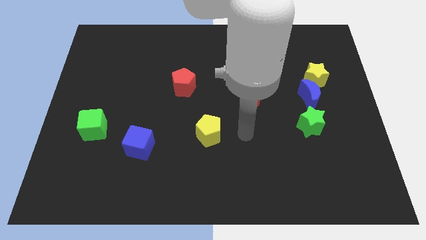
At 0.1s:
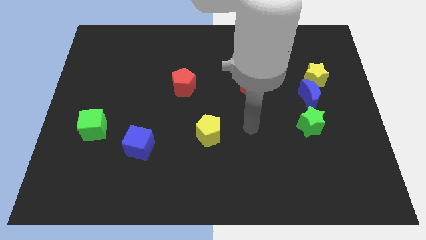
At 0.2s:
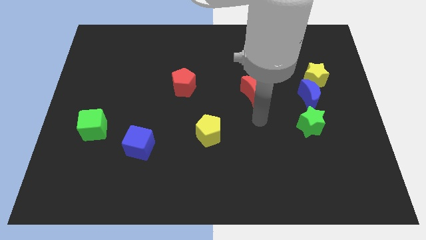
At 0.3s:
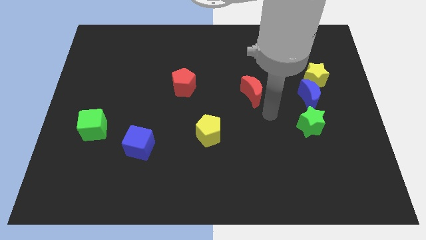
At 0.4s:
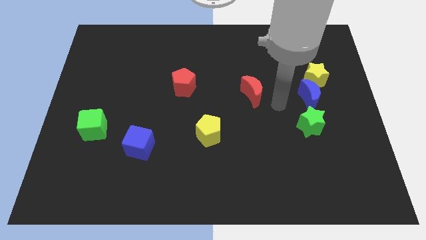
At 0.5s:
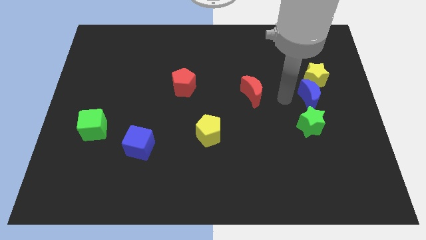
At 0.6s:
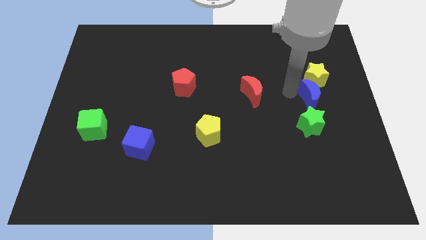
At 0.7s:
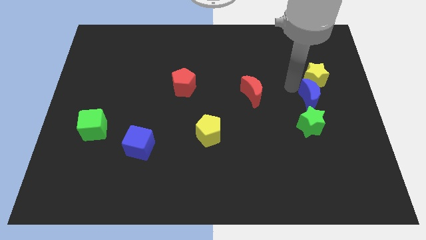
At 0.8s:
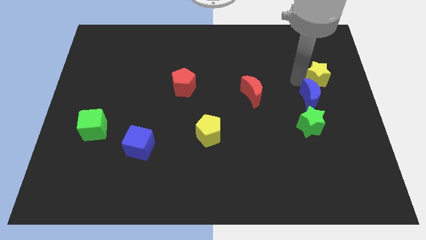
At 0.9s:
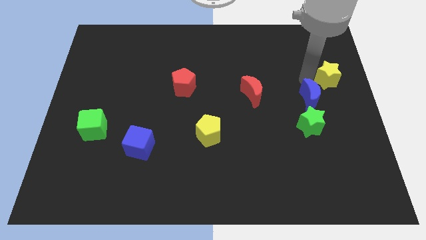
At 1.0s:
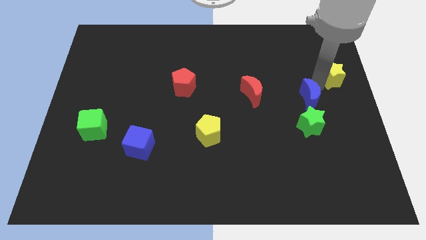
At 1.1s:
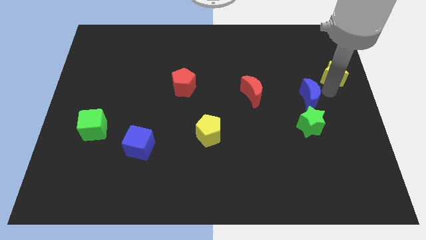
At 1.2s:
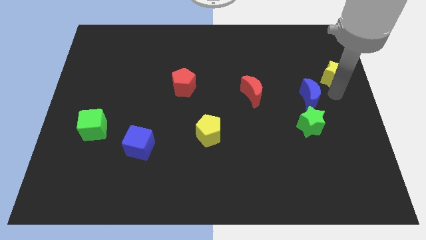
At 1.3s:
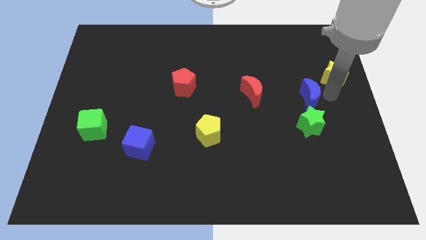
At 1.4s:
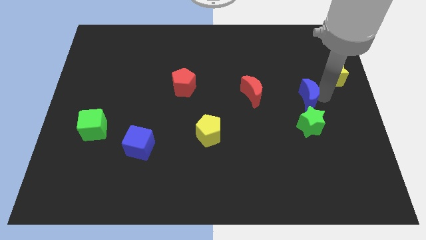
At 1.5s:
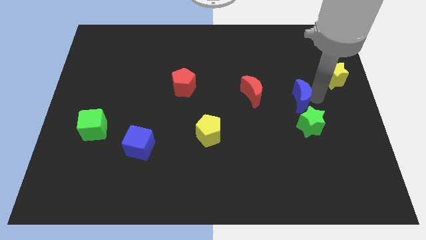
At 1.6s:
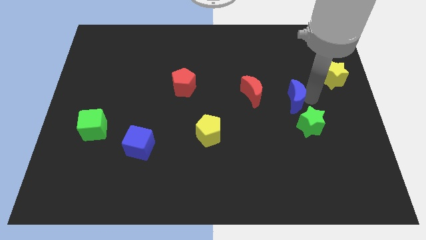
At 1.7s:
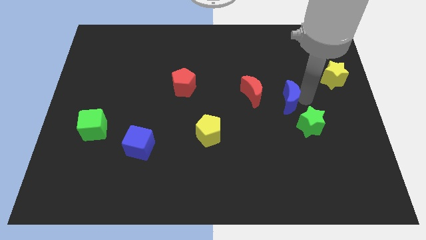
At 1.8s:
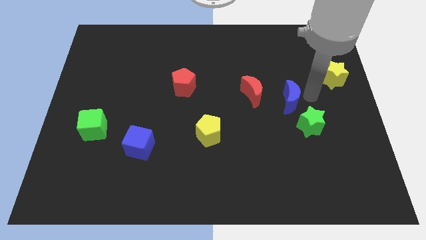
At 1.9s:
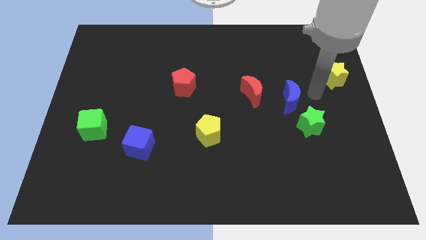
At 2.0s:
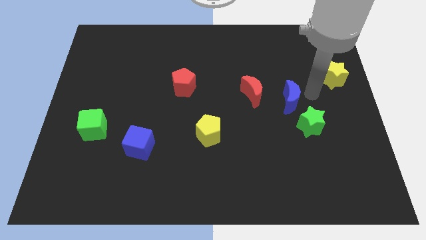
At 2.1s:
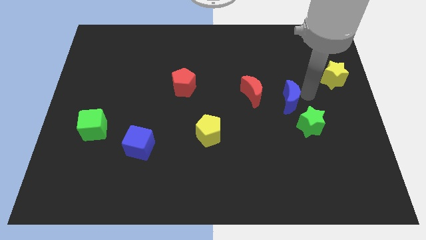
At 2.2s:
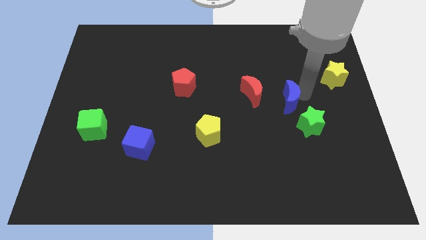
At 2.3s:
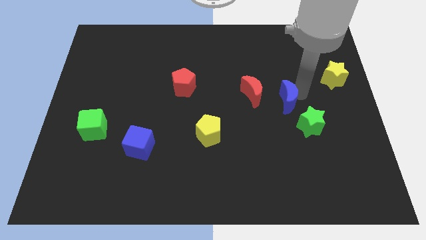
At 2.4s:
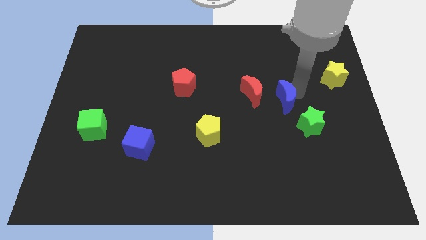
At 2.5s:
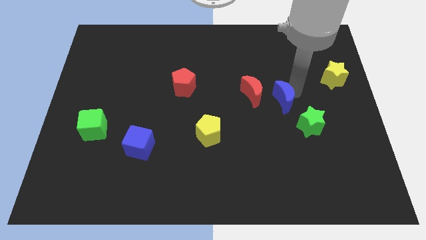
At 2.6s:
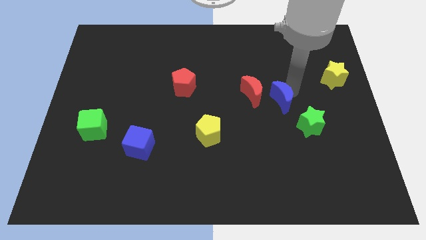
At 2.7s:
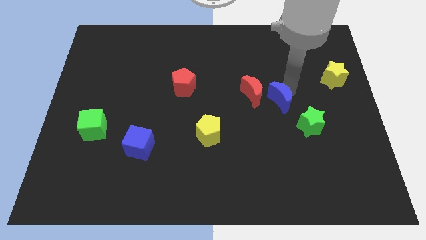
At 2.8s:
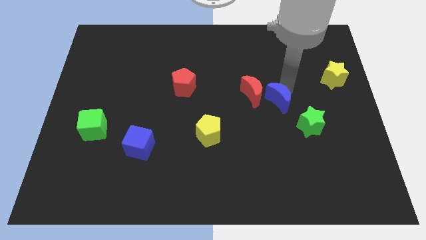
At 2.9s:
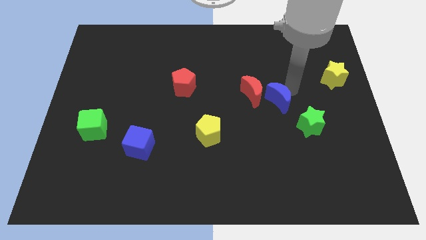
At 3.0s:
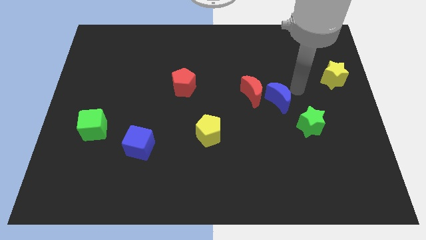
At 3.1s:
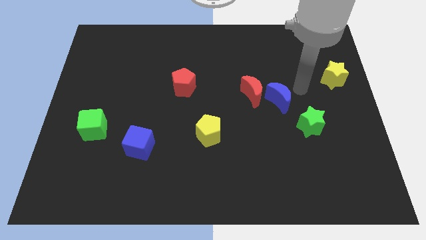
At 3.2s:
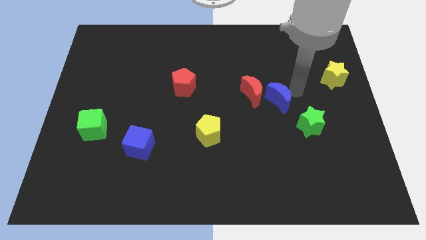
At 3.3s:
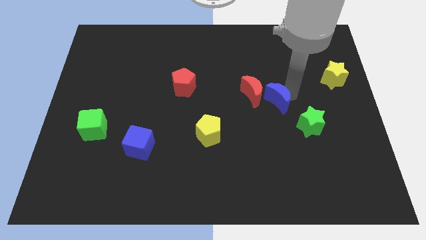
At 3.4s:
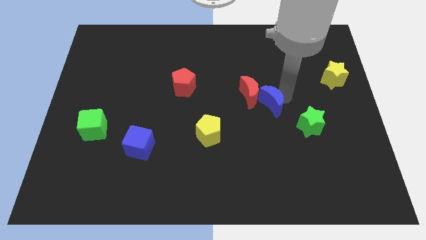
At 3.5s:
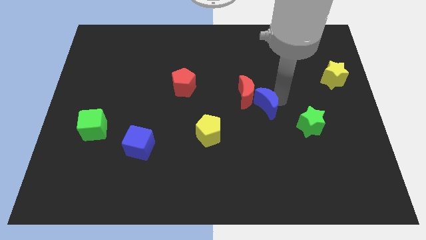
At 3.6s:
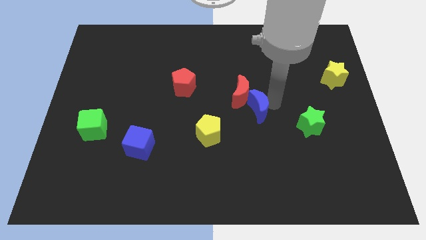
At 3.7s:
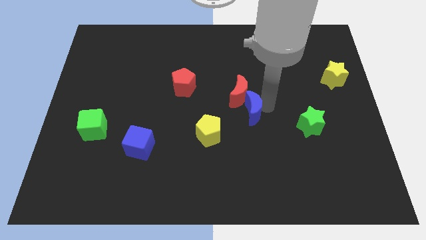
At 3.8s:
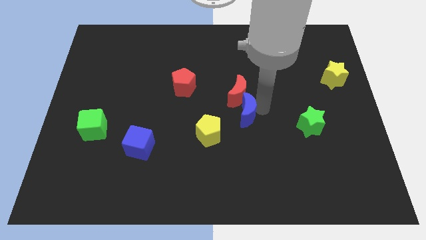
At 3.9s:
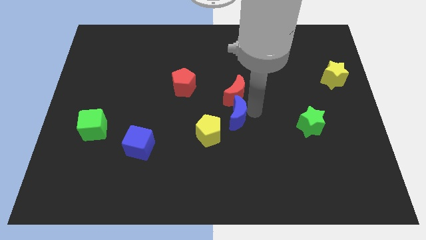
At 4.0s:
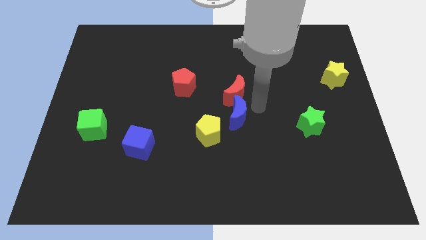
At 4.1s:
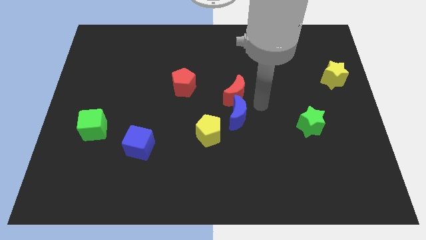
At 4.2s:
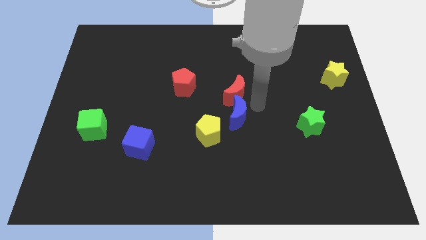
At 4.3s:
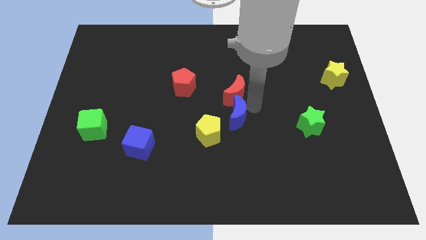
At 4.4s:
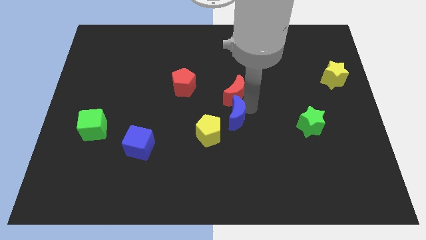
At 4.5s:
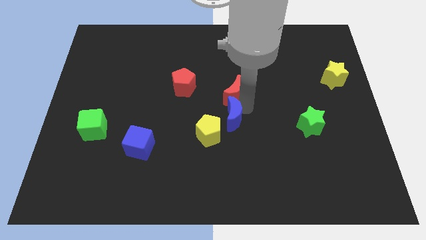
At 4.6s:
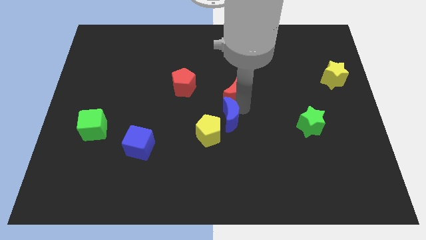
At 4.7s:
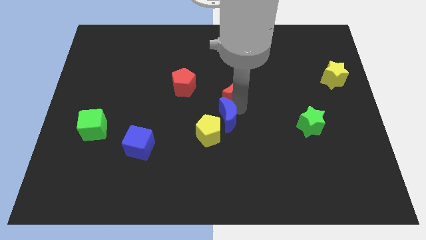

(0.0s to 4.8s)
put the blue moon next to the yellow pentagon

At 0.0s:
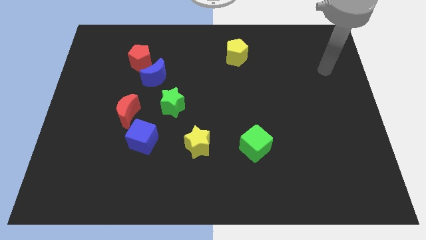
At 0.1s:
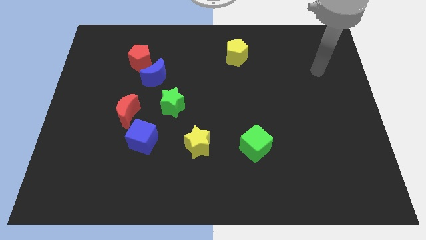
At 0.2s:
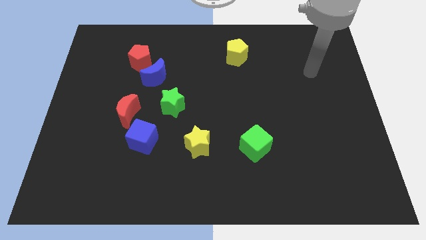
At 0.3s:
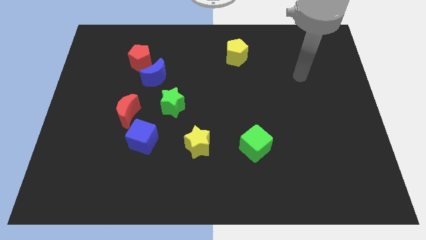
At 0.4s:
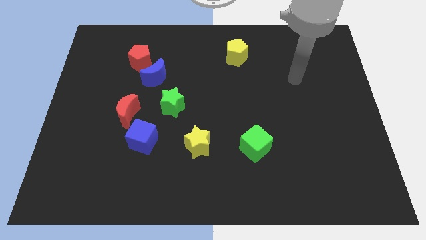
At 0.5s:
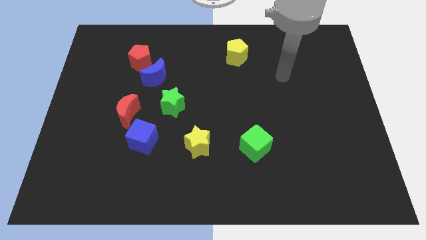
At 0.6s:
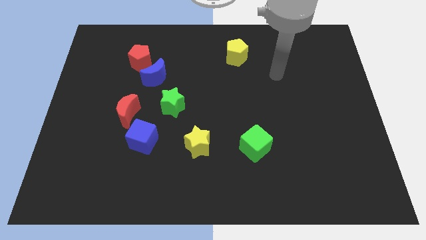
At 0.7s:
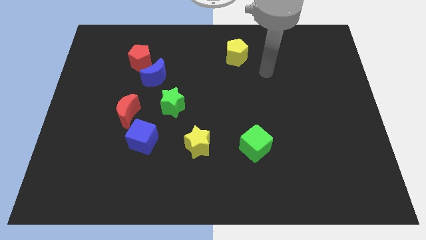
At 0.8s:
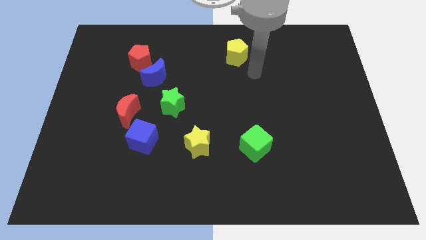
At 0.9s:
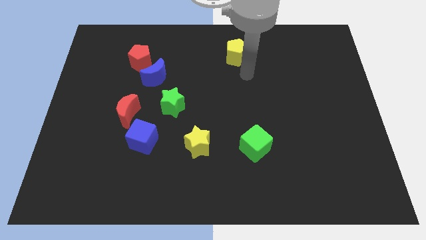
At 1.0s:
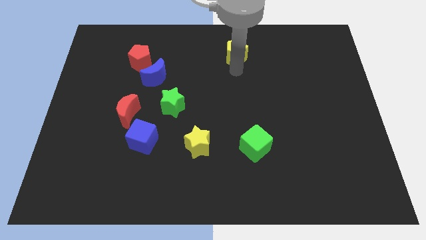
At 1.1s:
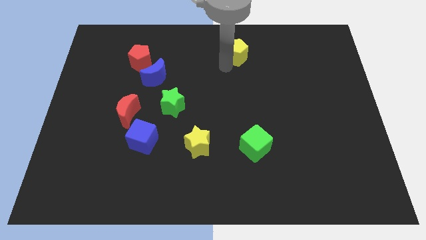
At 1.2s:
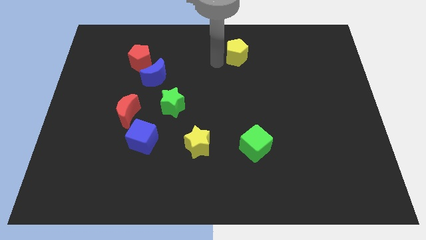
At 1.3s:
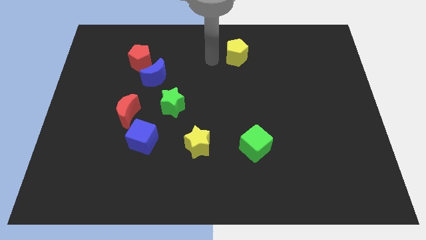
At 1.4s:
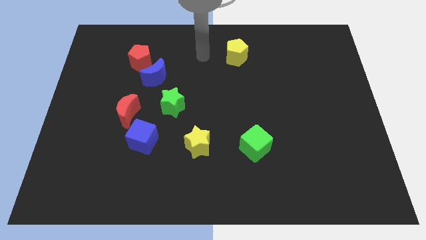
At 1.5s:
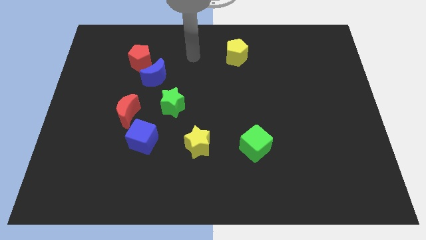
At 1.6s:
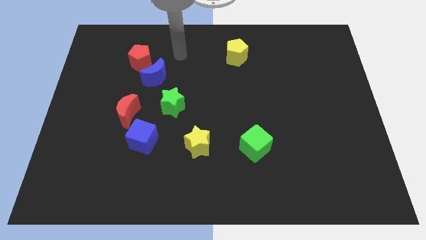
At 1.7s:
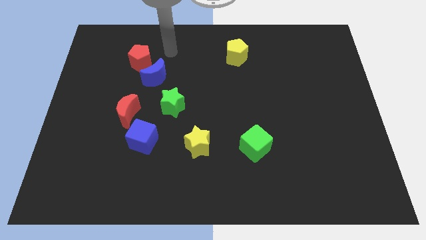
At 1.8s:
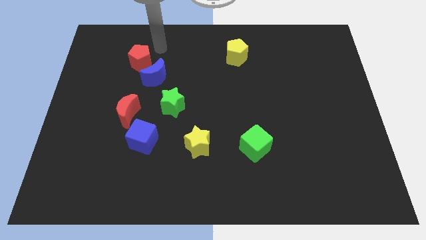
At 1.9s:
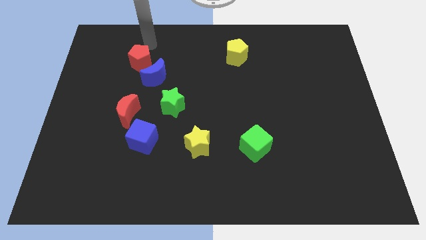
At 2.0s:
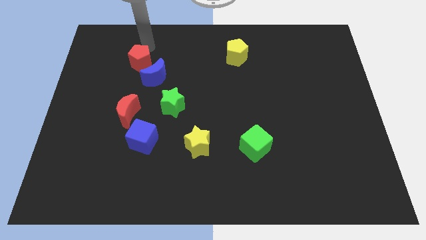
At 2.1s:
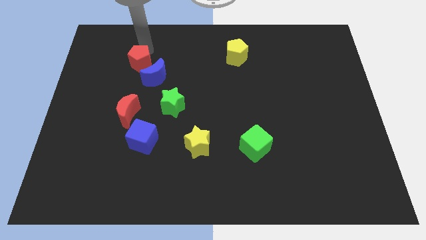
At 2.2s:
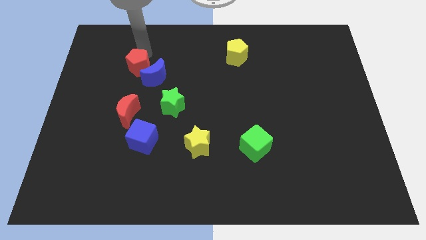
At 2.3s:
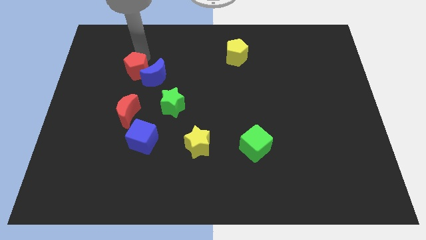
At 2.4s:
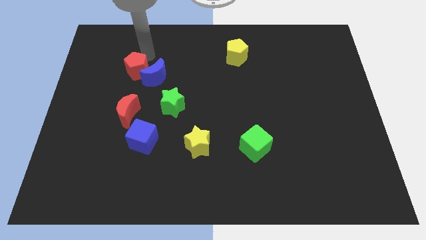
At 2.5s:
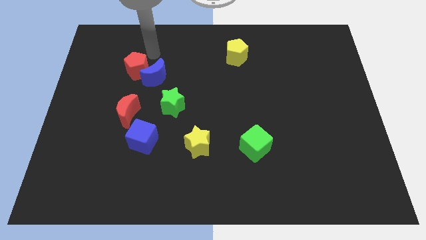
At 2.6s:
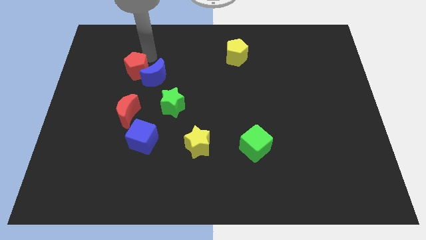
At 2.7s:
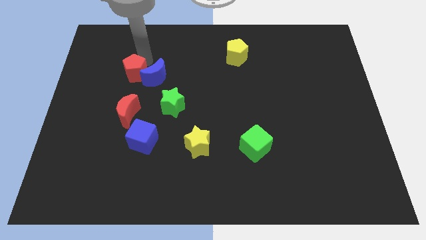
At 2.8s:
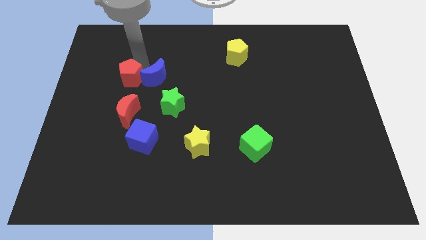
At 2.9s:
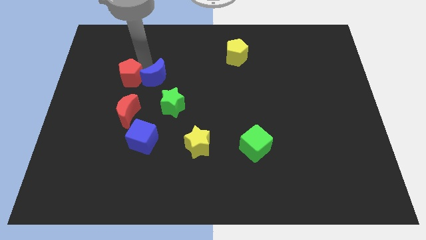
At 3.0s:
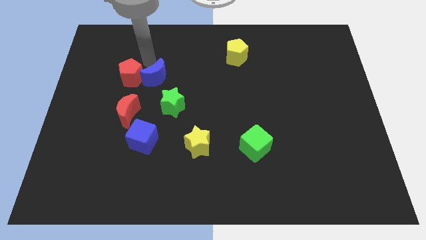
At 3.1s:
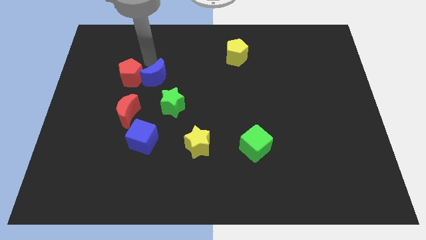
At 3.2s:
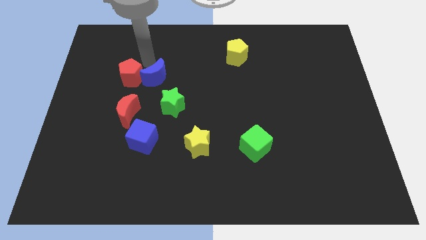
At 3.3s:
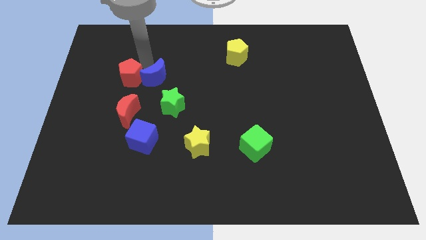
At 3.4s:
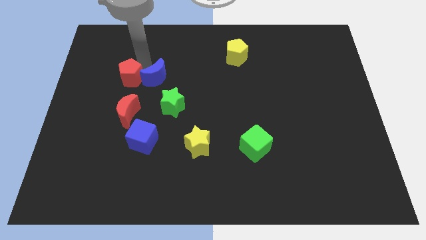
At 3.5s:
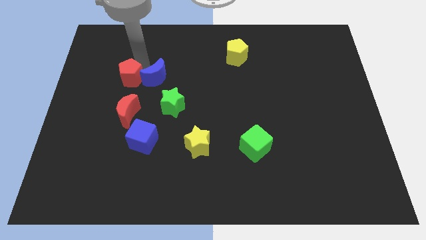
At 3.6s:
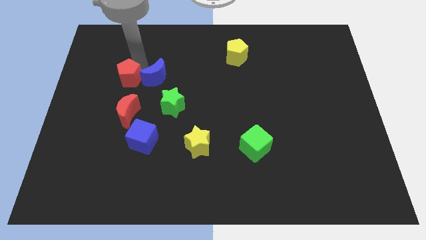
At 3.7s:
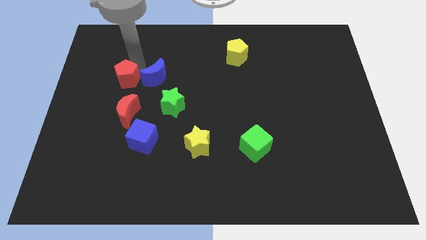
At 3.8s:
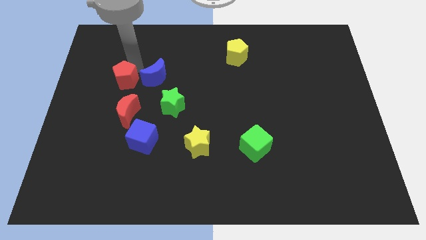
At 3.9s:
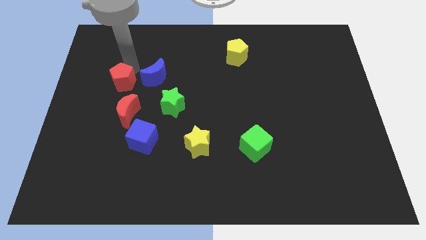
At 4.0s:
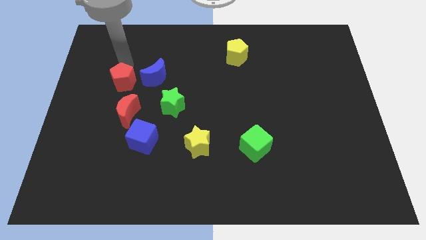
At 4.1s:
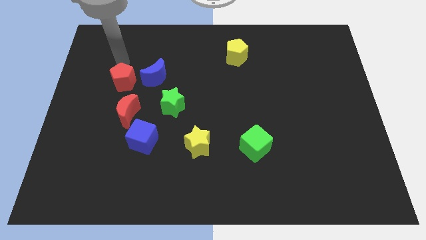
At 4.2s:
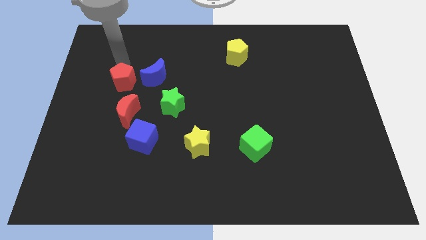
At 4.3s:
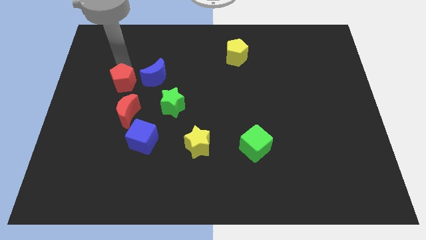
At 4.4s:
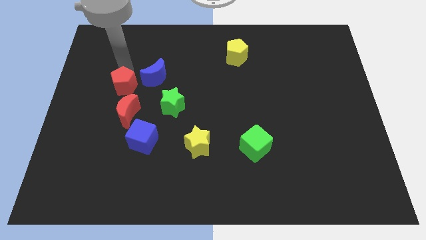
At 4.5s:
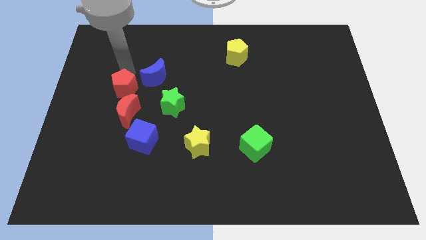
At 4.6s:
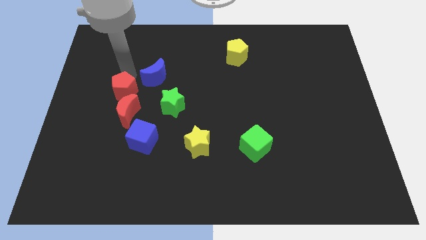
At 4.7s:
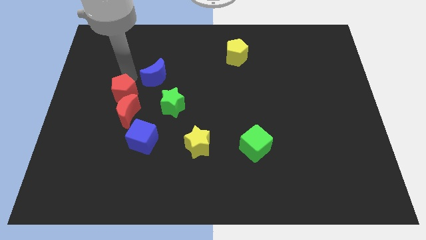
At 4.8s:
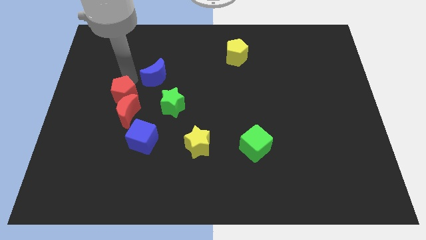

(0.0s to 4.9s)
move the red pentagon next to the red moon
